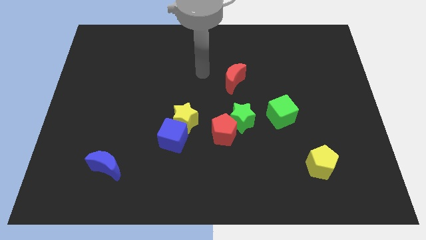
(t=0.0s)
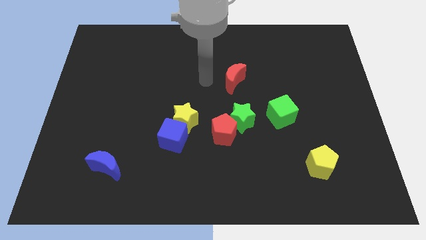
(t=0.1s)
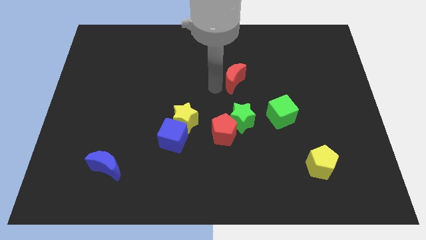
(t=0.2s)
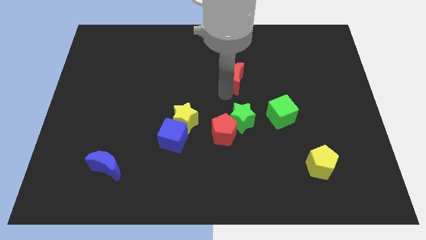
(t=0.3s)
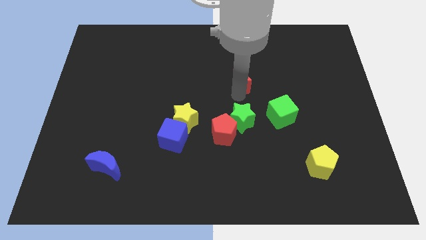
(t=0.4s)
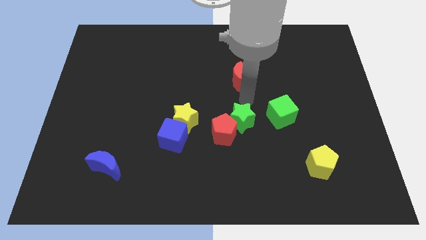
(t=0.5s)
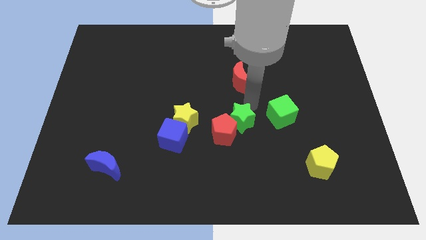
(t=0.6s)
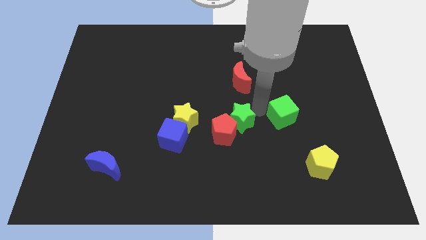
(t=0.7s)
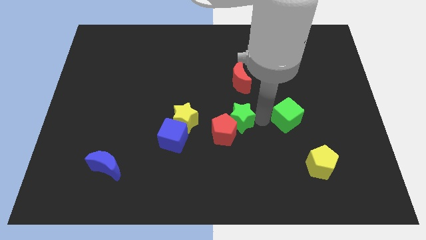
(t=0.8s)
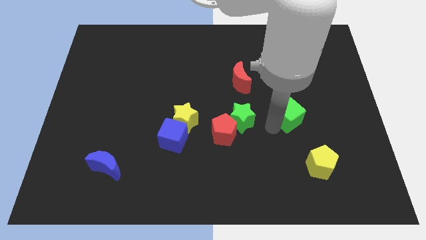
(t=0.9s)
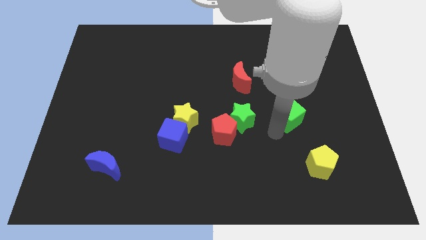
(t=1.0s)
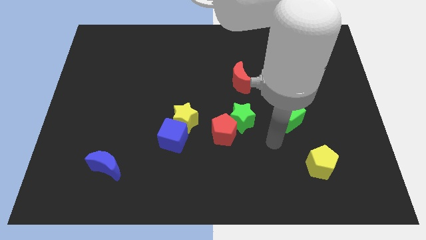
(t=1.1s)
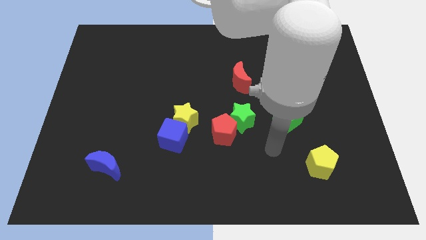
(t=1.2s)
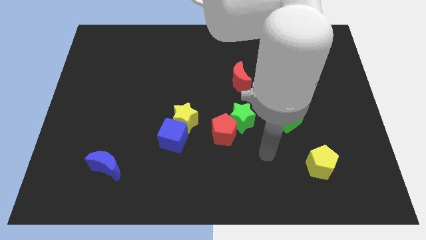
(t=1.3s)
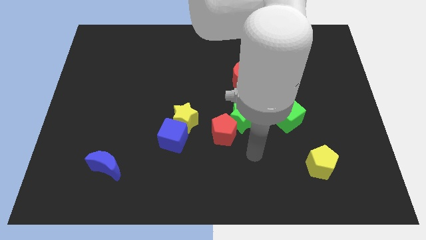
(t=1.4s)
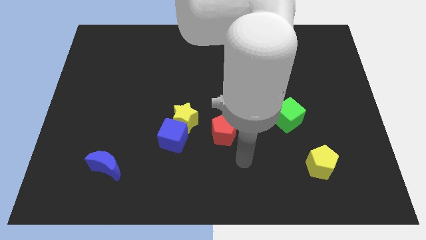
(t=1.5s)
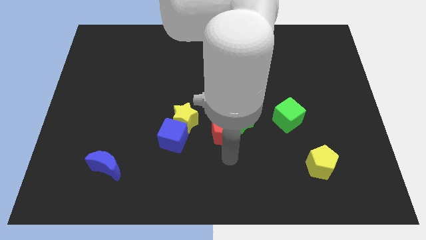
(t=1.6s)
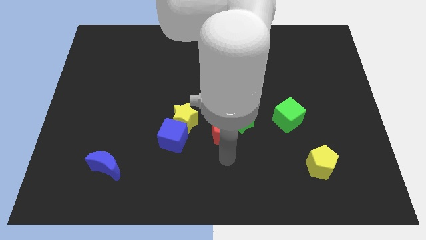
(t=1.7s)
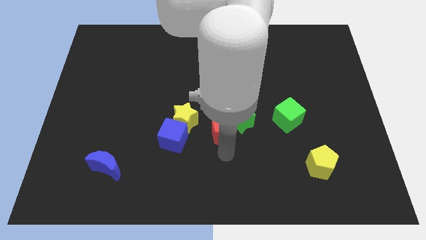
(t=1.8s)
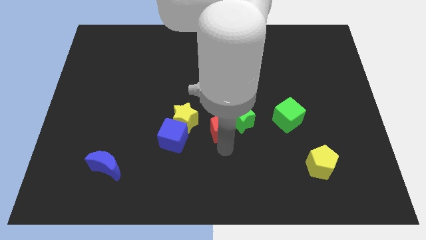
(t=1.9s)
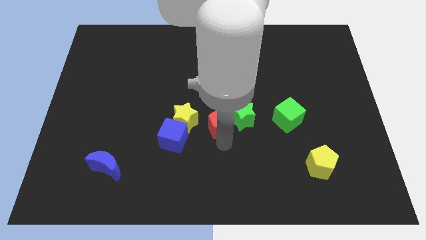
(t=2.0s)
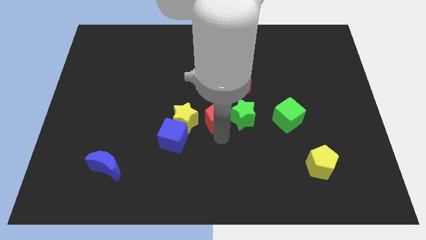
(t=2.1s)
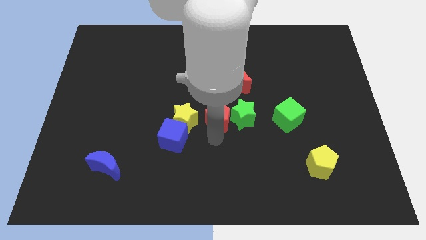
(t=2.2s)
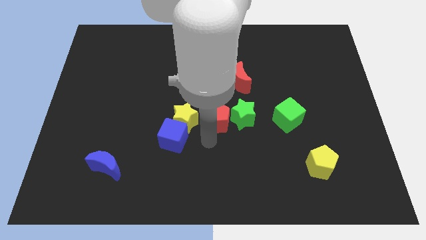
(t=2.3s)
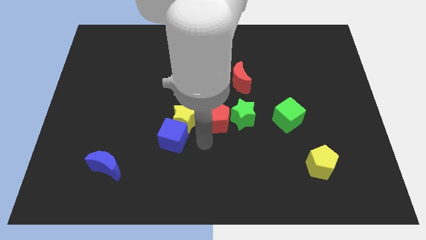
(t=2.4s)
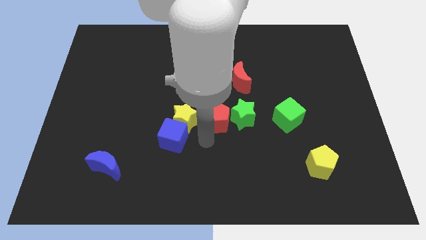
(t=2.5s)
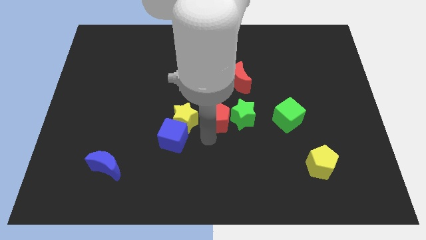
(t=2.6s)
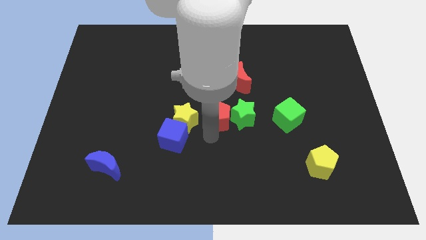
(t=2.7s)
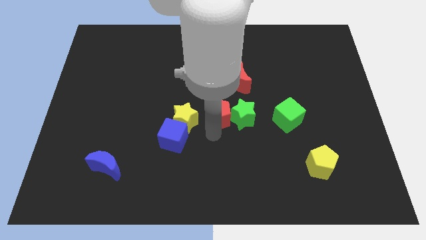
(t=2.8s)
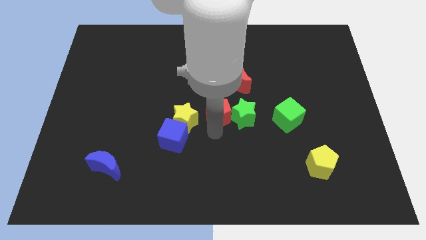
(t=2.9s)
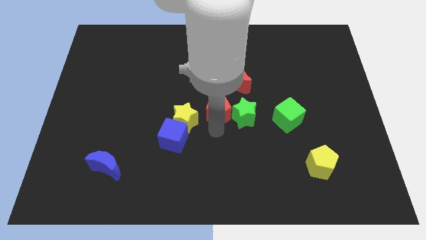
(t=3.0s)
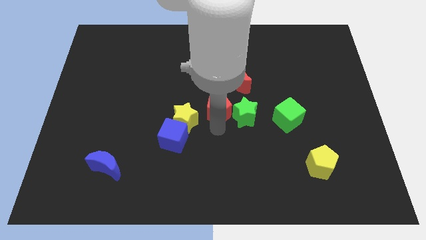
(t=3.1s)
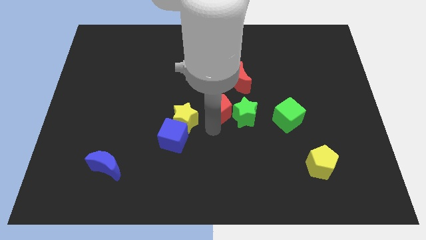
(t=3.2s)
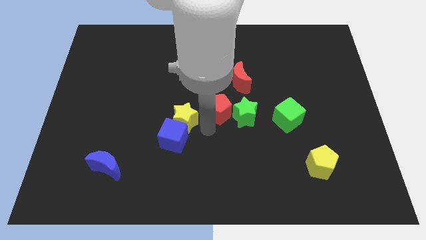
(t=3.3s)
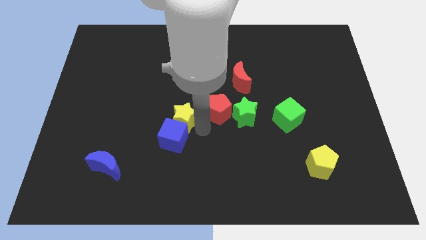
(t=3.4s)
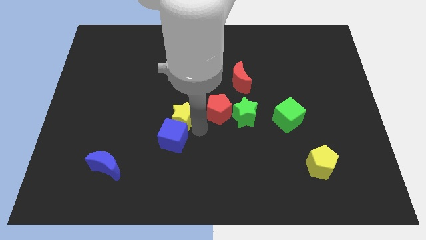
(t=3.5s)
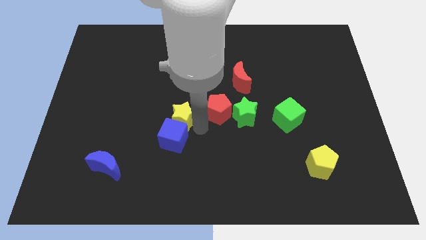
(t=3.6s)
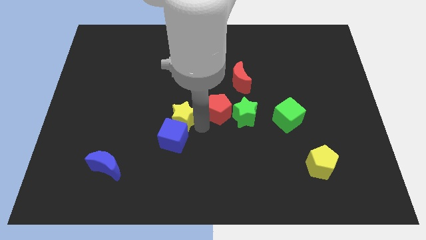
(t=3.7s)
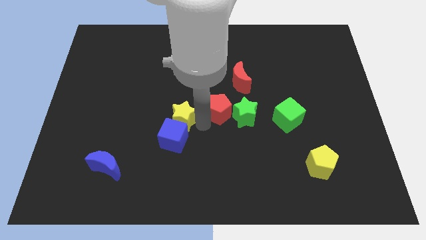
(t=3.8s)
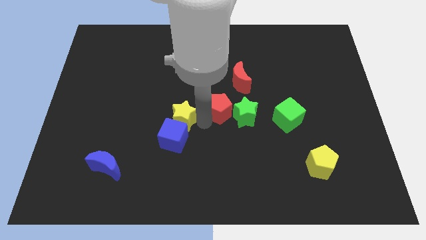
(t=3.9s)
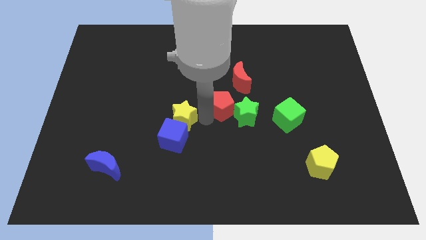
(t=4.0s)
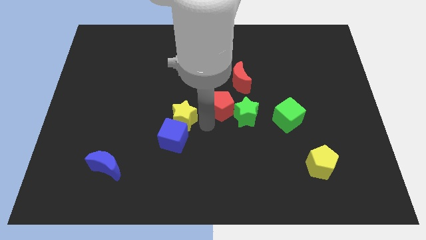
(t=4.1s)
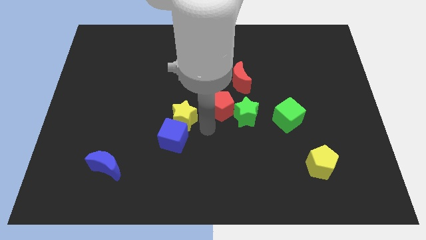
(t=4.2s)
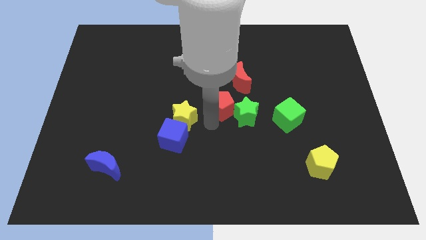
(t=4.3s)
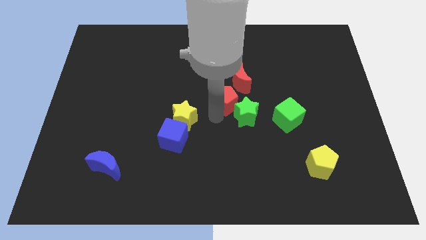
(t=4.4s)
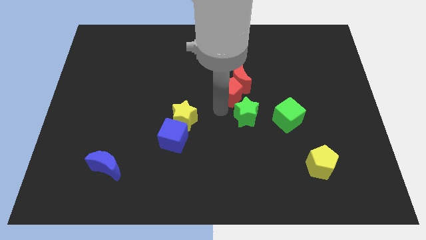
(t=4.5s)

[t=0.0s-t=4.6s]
push the red pentagon close to the red moon

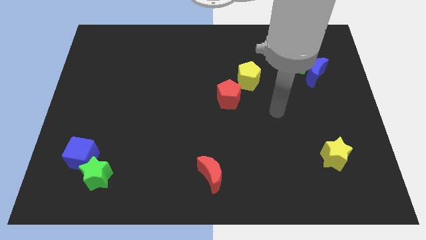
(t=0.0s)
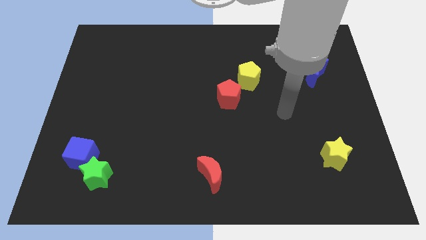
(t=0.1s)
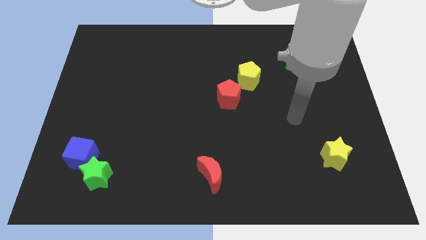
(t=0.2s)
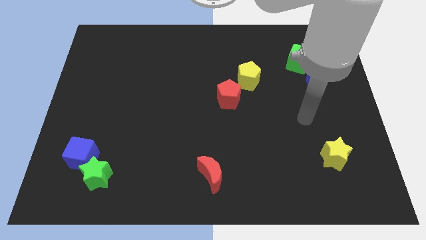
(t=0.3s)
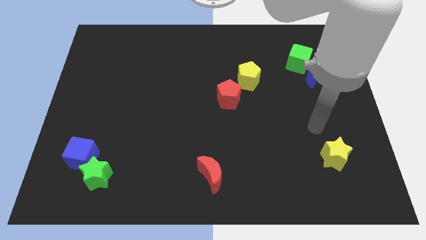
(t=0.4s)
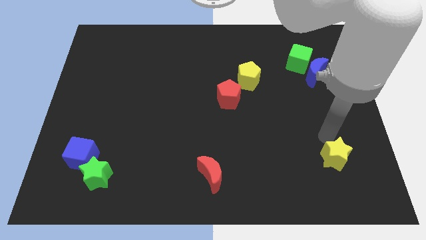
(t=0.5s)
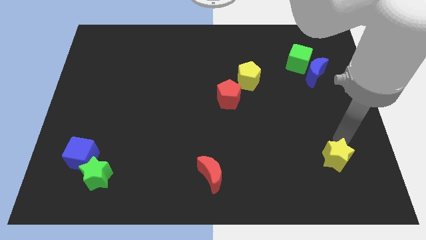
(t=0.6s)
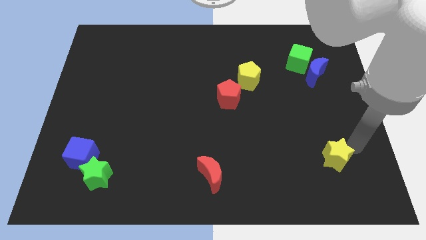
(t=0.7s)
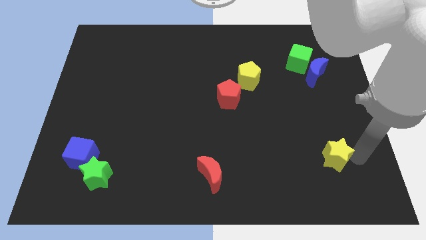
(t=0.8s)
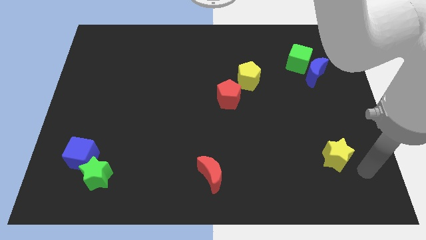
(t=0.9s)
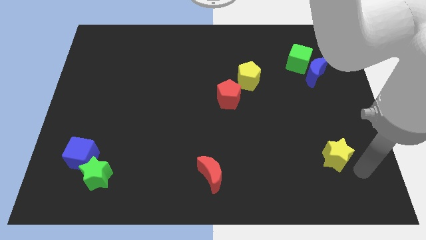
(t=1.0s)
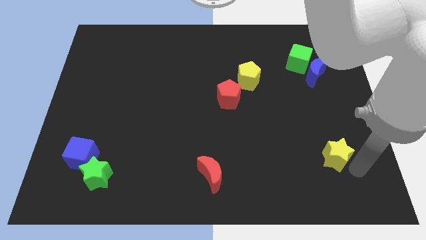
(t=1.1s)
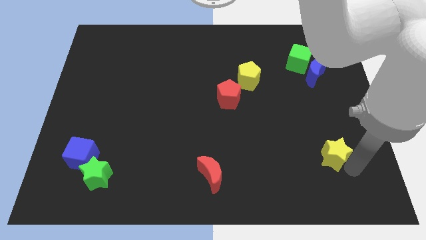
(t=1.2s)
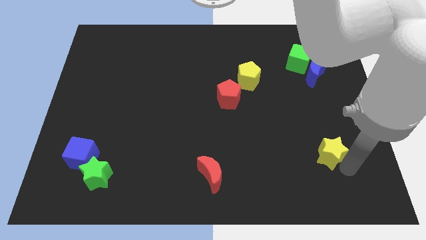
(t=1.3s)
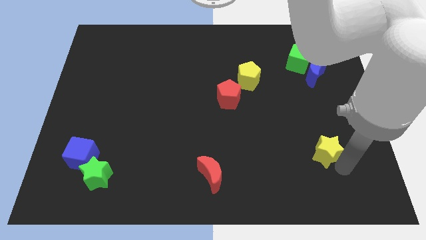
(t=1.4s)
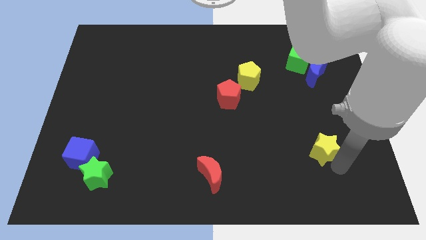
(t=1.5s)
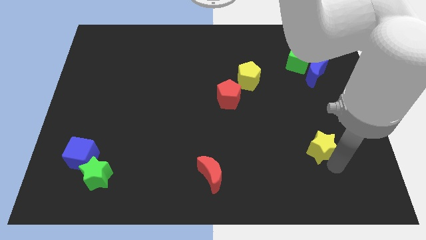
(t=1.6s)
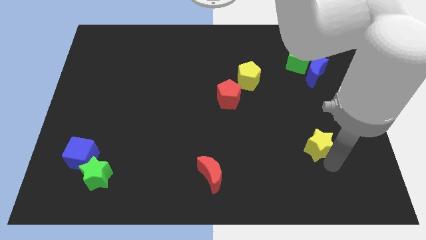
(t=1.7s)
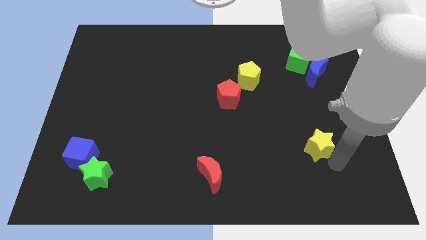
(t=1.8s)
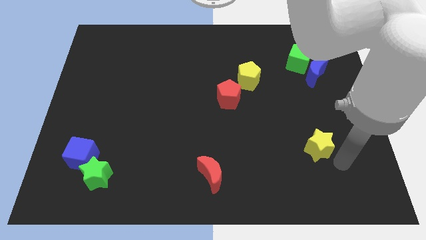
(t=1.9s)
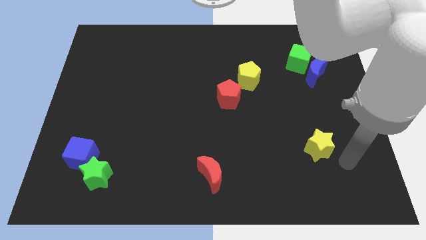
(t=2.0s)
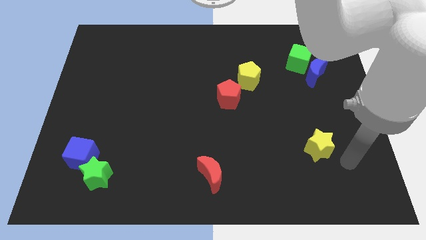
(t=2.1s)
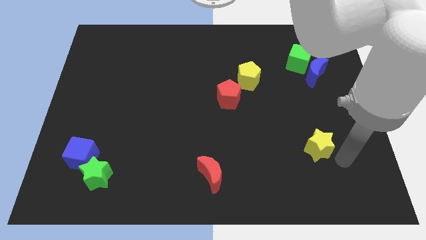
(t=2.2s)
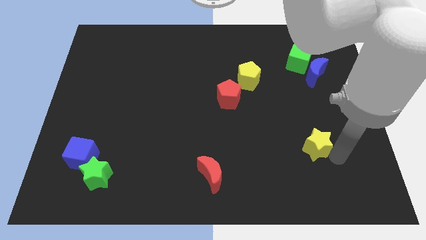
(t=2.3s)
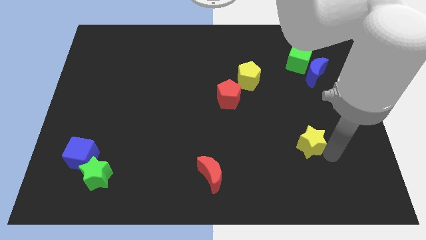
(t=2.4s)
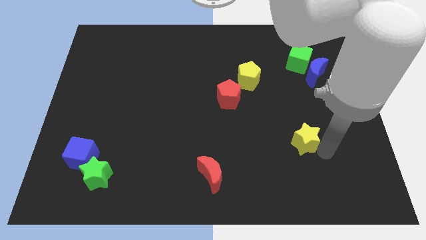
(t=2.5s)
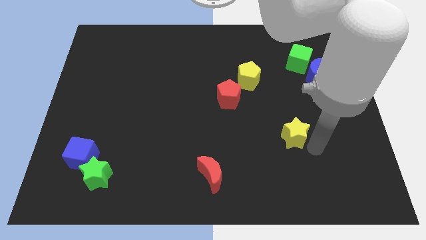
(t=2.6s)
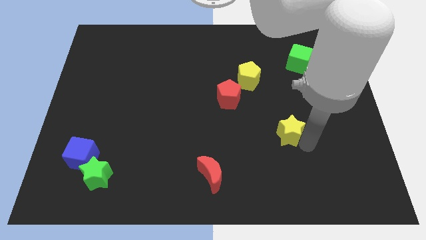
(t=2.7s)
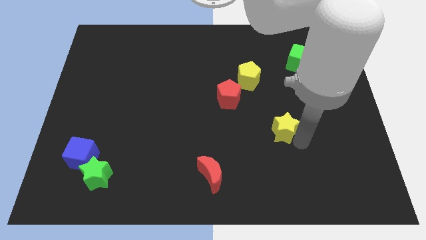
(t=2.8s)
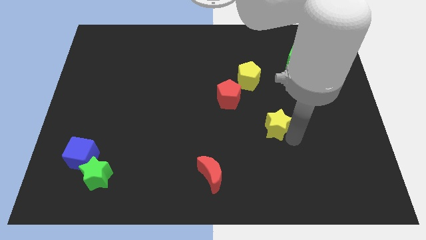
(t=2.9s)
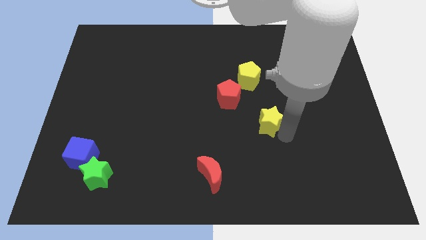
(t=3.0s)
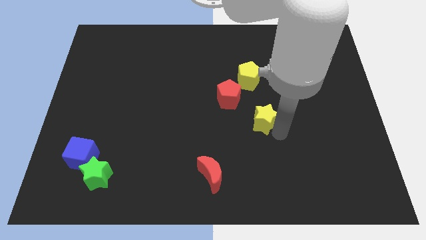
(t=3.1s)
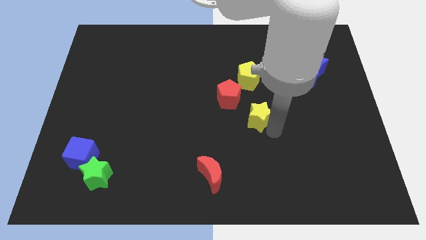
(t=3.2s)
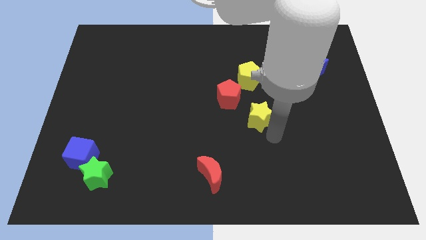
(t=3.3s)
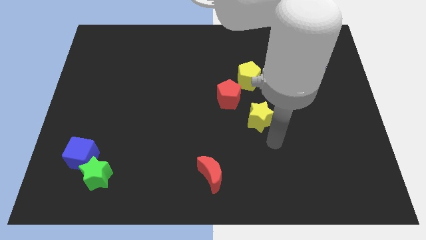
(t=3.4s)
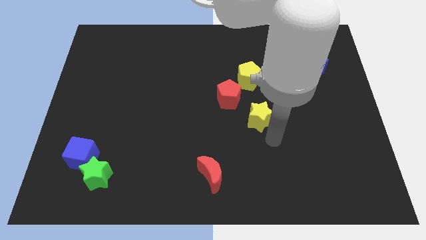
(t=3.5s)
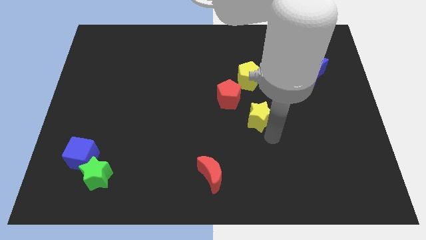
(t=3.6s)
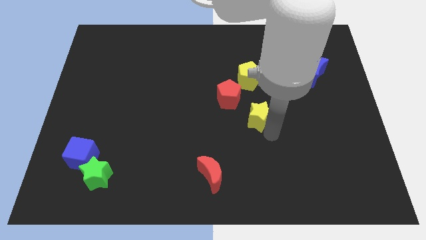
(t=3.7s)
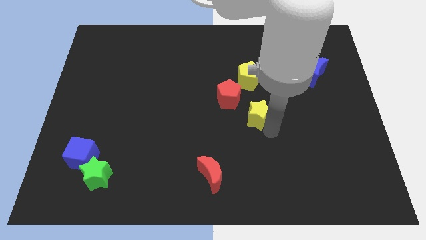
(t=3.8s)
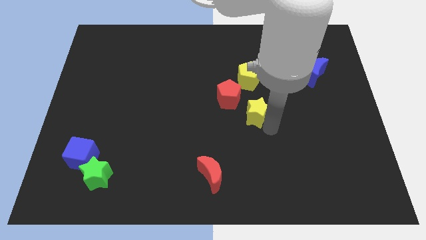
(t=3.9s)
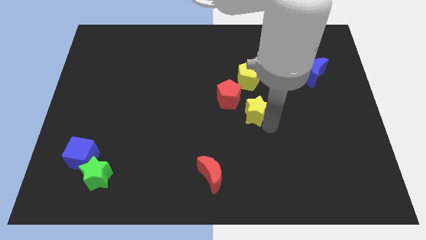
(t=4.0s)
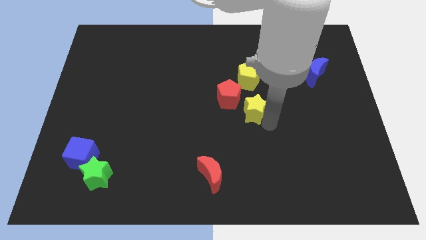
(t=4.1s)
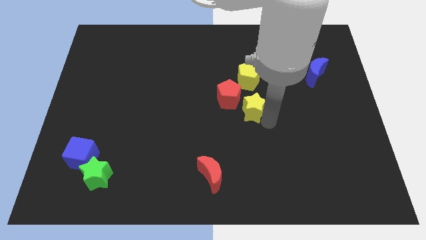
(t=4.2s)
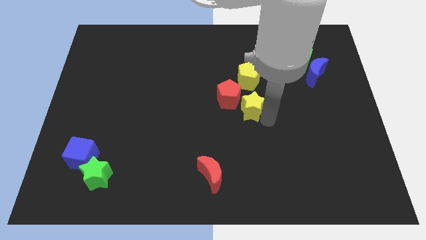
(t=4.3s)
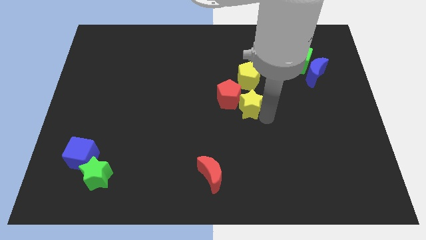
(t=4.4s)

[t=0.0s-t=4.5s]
slide the yellow star close to the red pentagon
